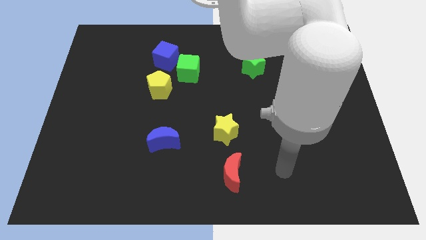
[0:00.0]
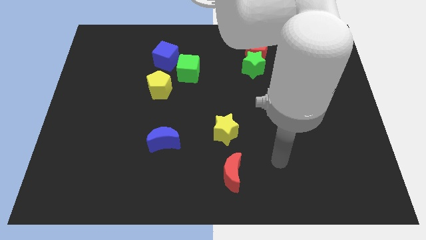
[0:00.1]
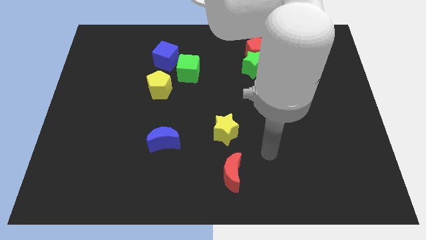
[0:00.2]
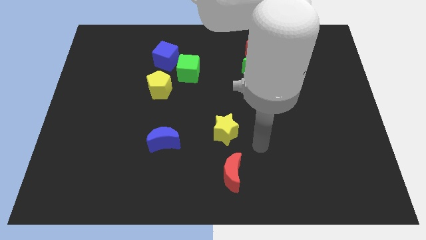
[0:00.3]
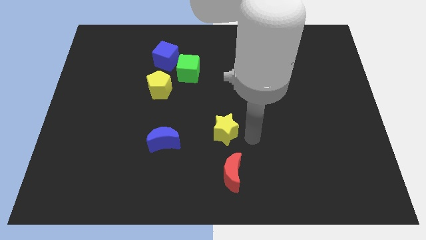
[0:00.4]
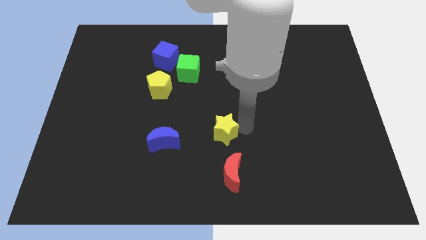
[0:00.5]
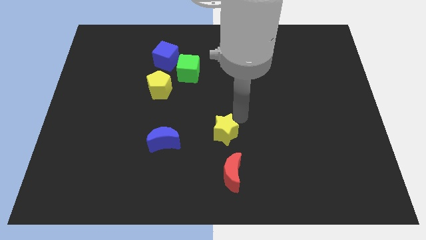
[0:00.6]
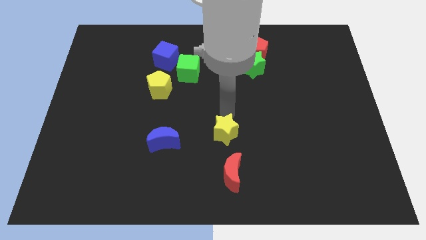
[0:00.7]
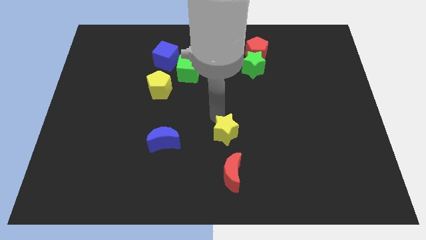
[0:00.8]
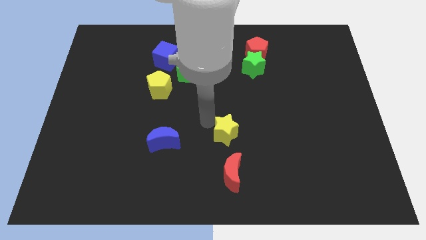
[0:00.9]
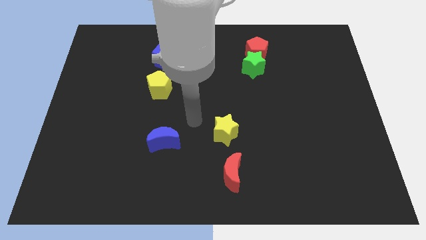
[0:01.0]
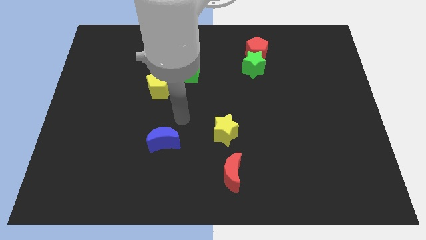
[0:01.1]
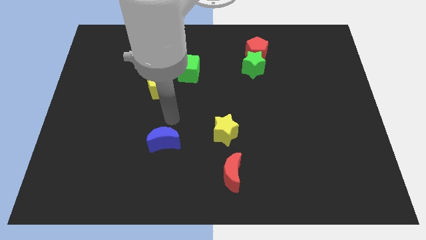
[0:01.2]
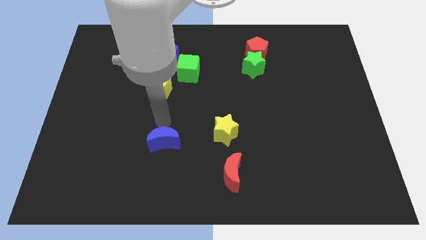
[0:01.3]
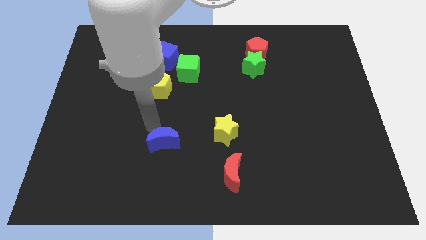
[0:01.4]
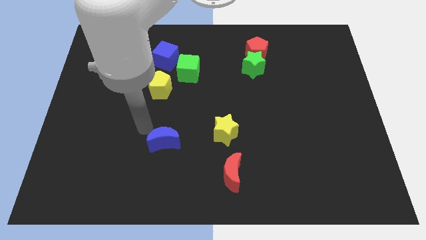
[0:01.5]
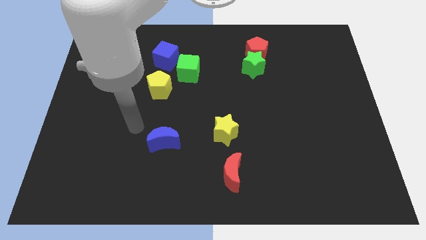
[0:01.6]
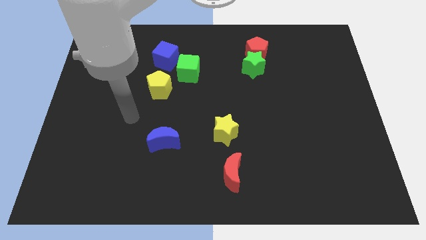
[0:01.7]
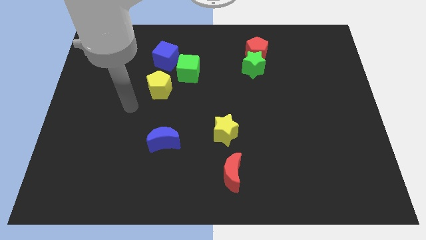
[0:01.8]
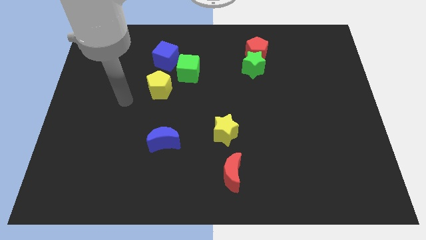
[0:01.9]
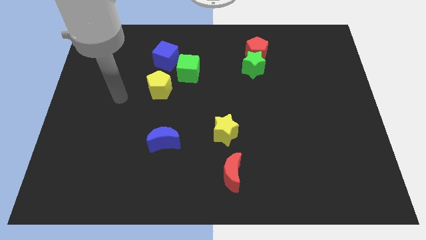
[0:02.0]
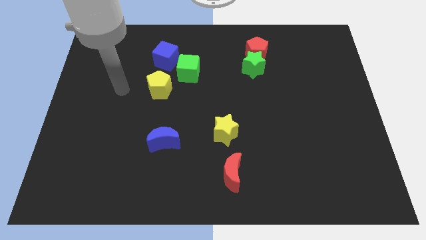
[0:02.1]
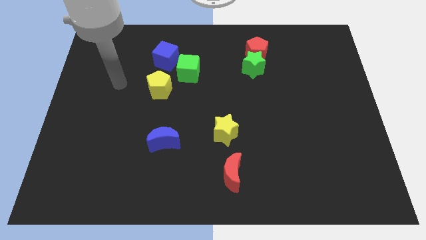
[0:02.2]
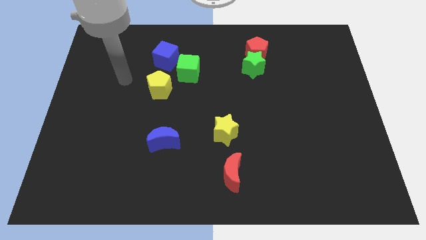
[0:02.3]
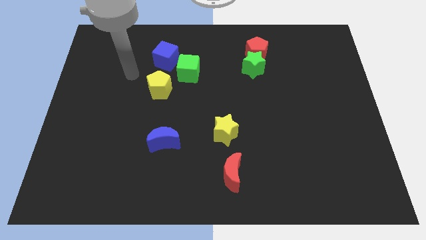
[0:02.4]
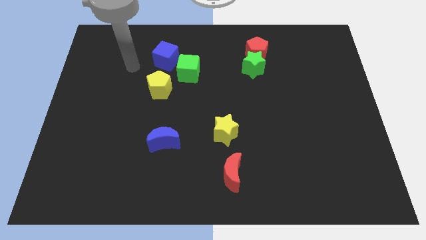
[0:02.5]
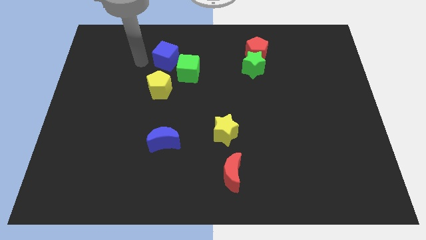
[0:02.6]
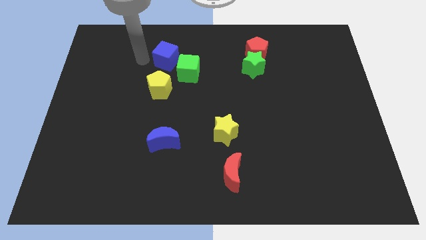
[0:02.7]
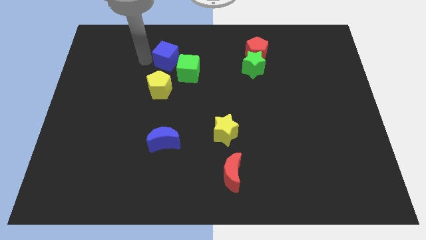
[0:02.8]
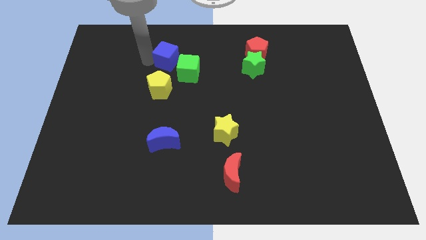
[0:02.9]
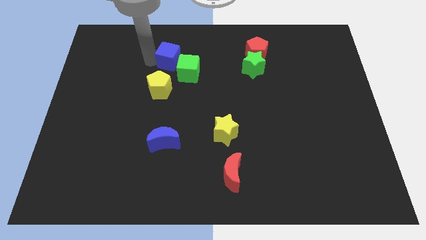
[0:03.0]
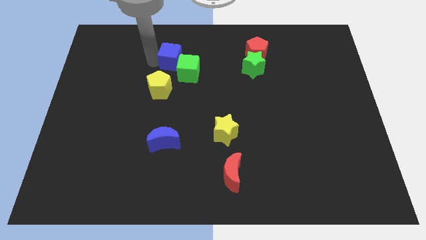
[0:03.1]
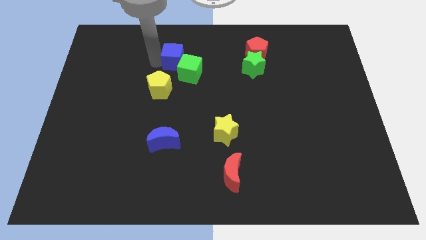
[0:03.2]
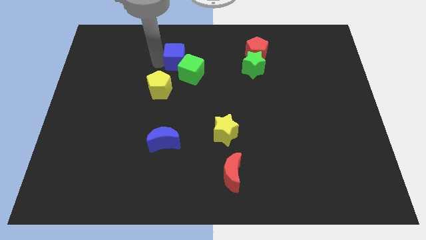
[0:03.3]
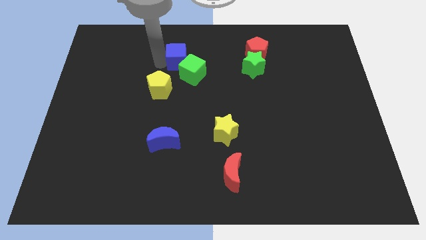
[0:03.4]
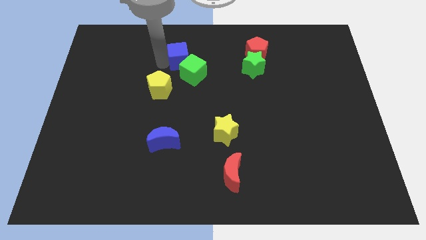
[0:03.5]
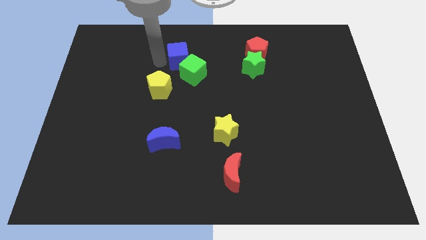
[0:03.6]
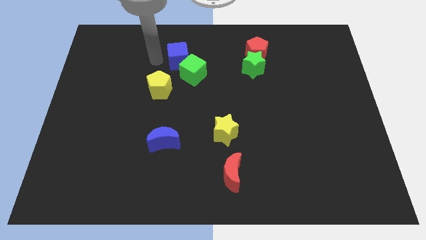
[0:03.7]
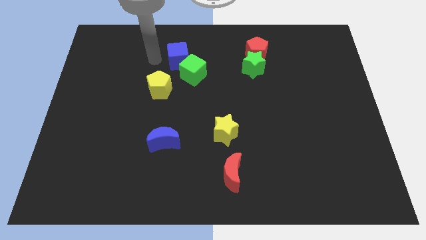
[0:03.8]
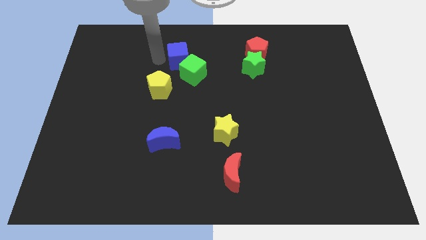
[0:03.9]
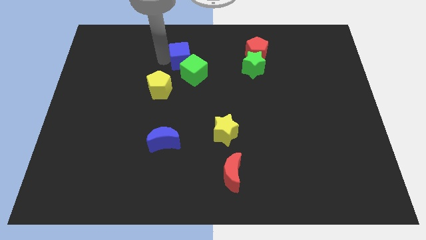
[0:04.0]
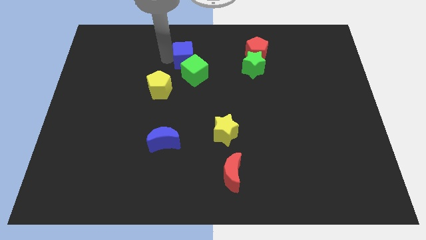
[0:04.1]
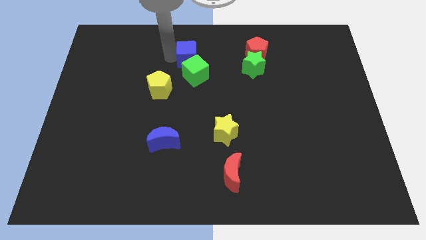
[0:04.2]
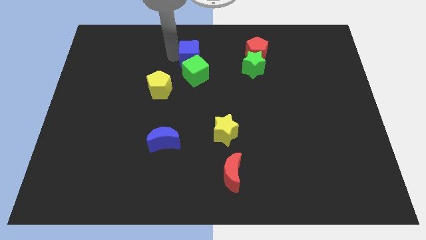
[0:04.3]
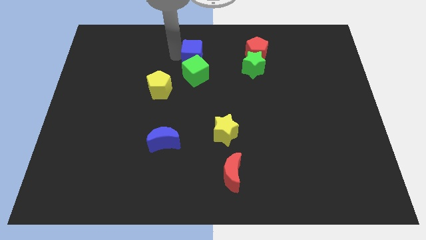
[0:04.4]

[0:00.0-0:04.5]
move the blue cube to the right somewhat

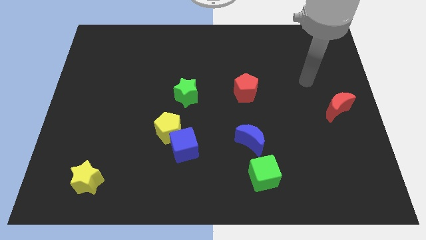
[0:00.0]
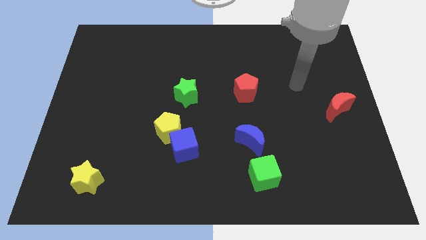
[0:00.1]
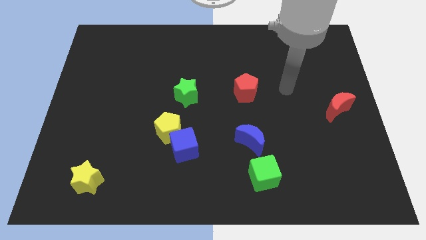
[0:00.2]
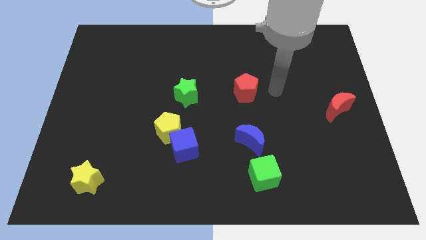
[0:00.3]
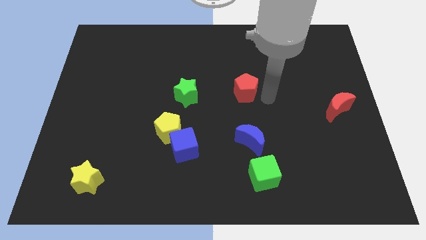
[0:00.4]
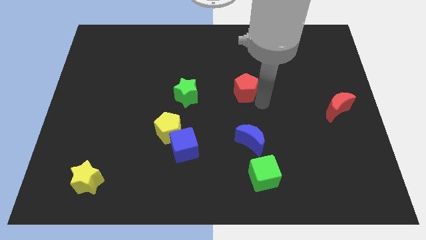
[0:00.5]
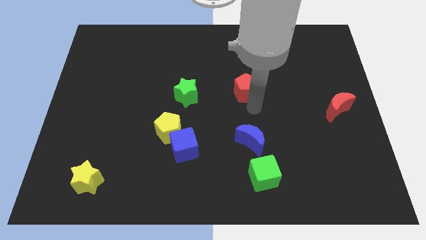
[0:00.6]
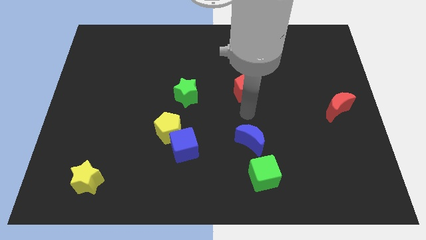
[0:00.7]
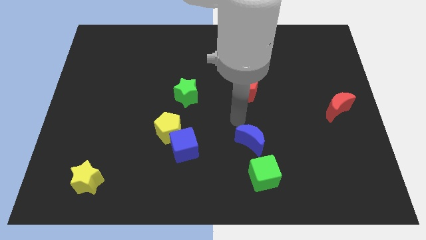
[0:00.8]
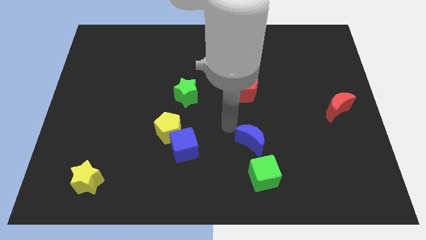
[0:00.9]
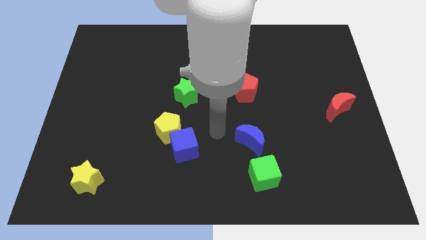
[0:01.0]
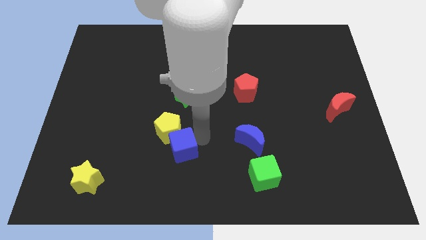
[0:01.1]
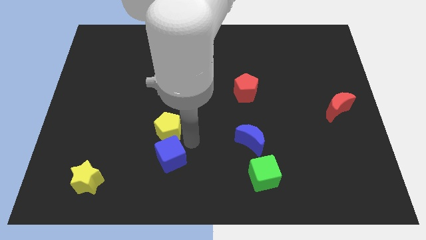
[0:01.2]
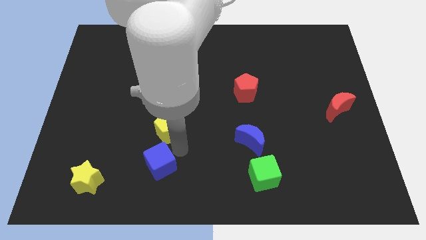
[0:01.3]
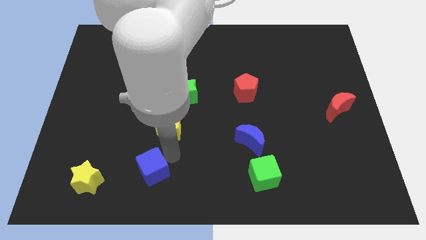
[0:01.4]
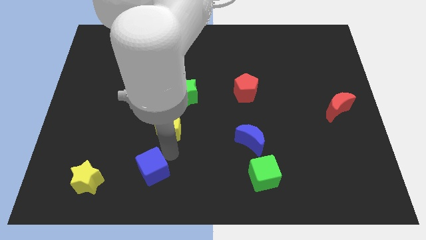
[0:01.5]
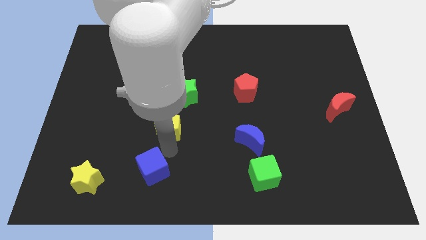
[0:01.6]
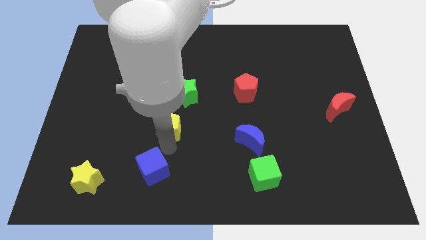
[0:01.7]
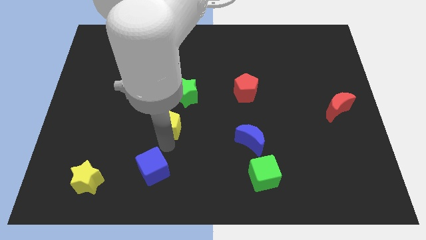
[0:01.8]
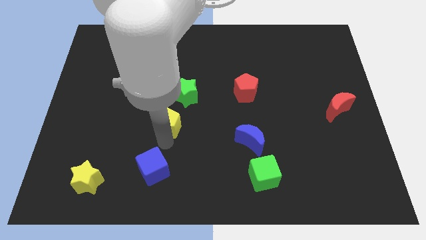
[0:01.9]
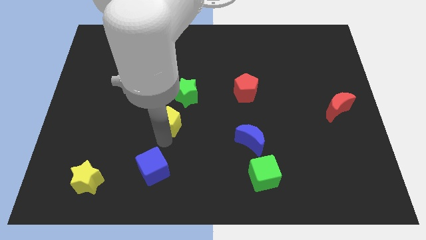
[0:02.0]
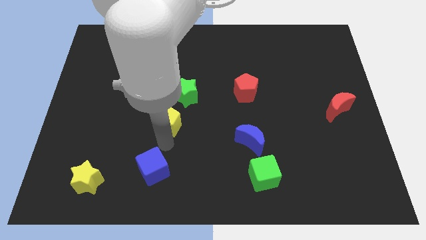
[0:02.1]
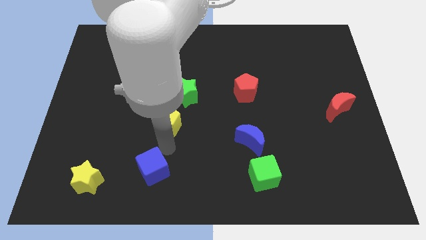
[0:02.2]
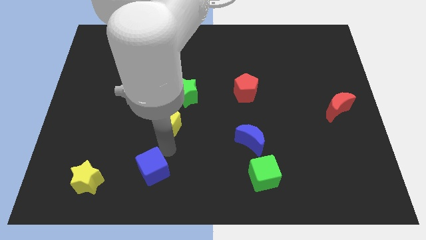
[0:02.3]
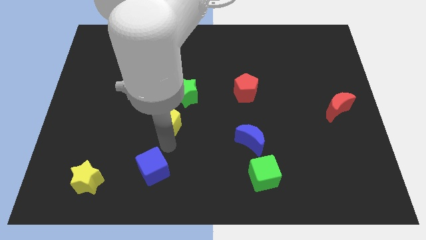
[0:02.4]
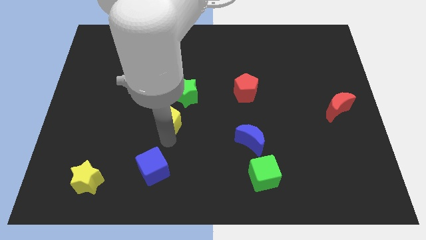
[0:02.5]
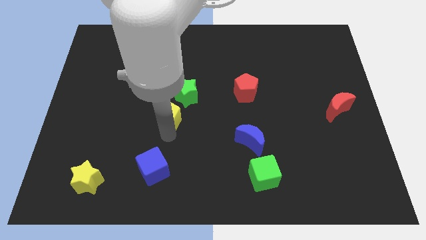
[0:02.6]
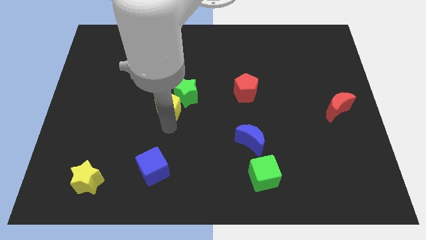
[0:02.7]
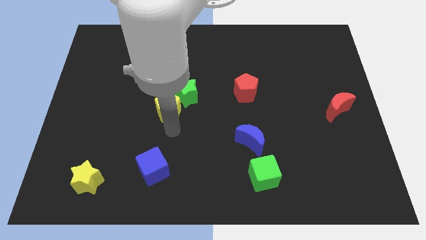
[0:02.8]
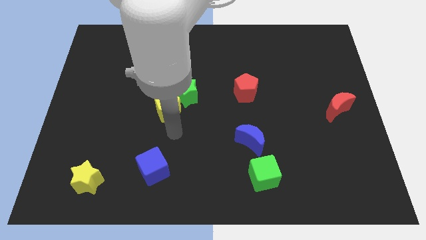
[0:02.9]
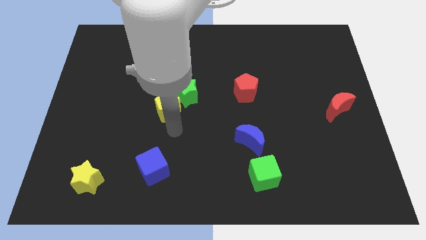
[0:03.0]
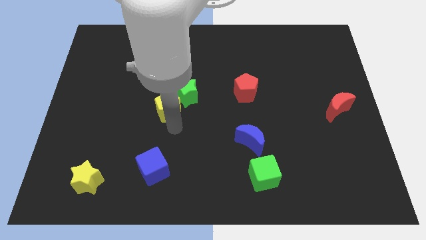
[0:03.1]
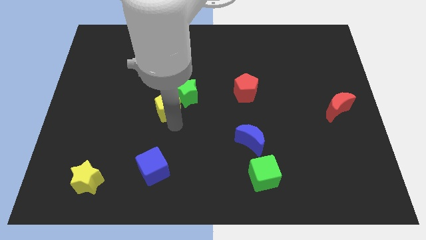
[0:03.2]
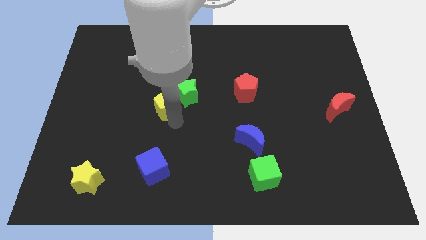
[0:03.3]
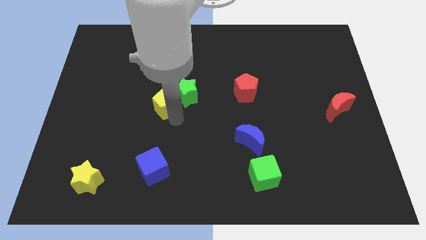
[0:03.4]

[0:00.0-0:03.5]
slightly push the yellow pentagon upwards
